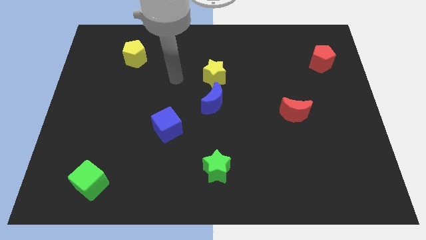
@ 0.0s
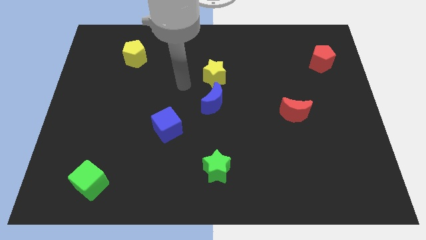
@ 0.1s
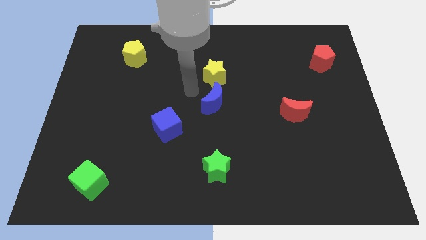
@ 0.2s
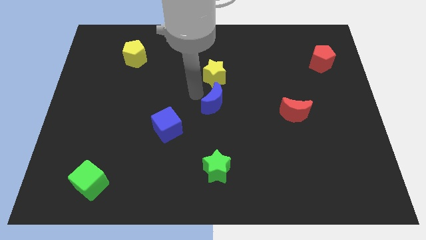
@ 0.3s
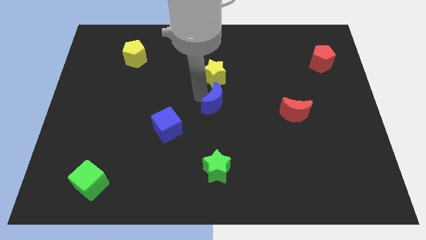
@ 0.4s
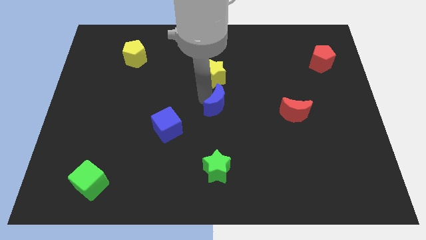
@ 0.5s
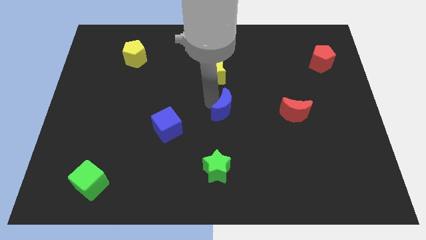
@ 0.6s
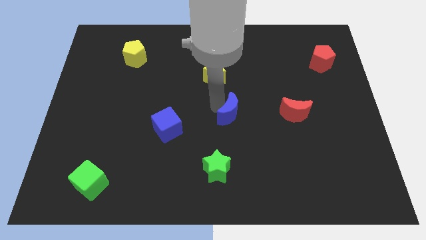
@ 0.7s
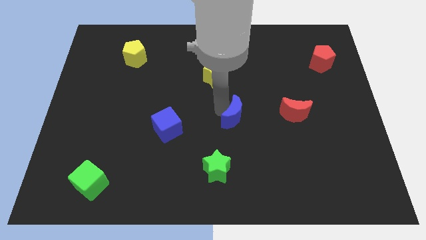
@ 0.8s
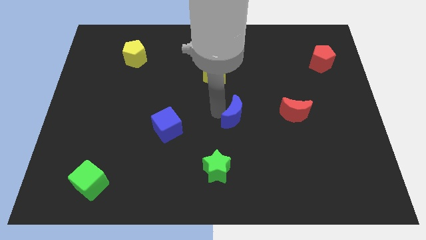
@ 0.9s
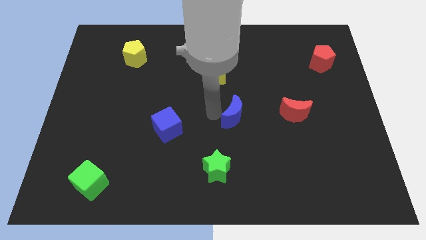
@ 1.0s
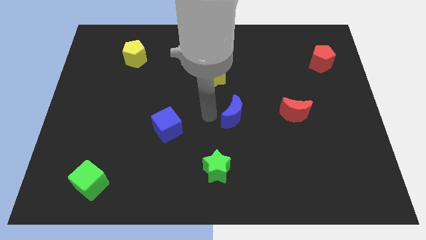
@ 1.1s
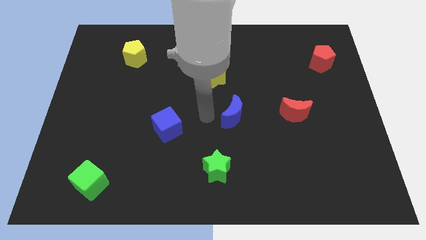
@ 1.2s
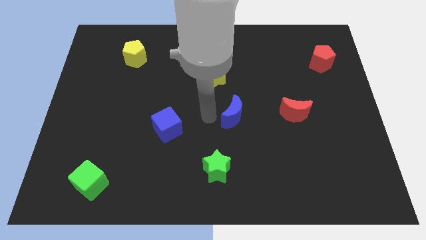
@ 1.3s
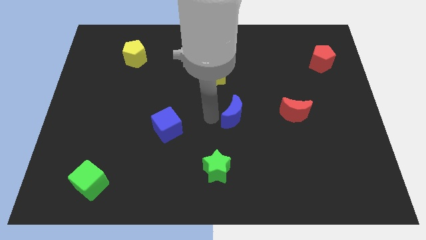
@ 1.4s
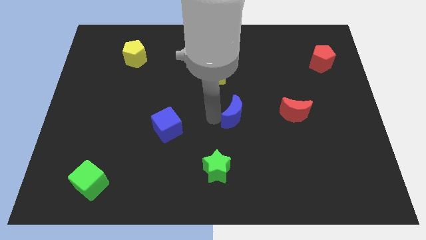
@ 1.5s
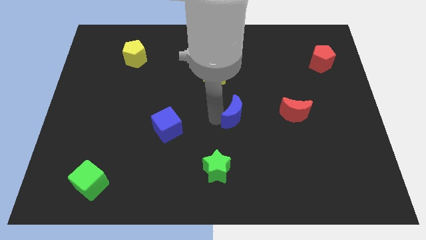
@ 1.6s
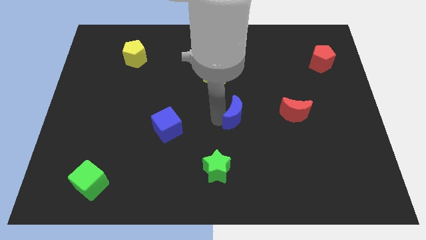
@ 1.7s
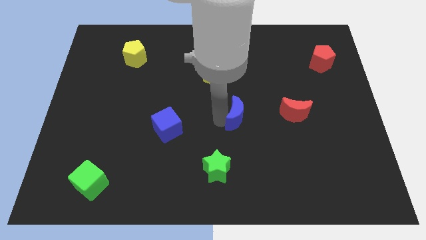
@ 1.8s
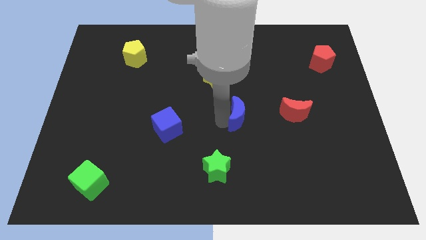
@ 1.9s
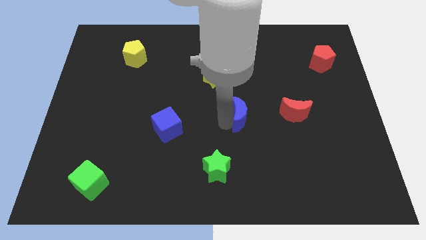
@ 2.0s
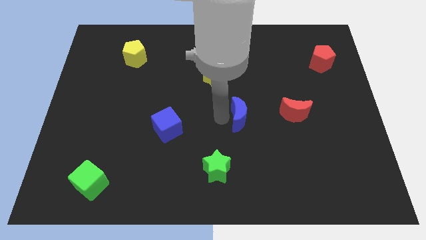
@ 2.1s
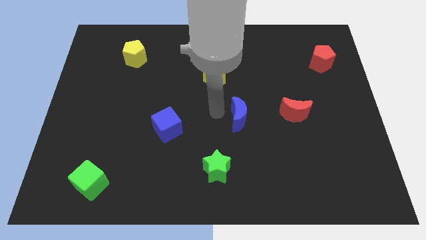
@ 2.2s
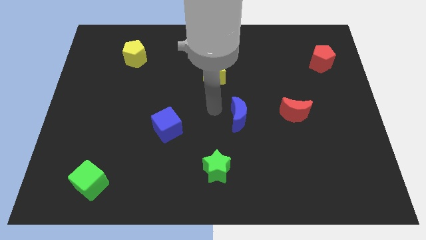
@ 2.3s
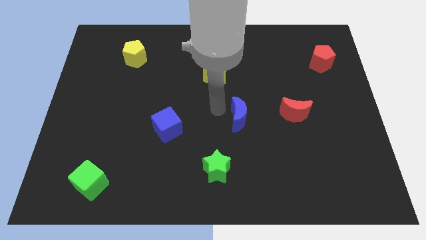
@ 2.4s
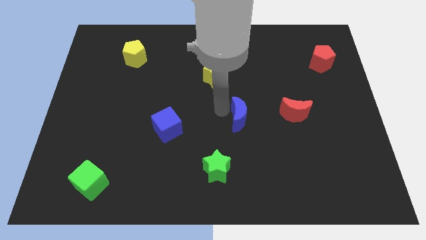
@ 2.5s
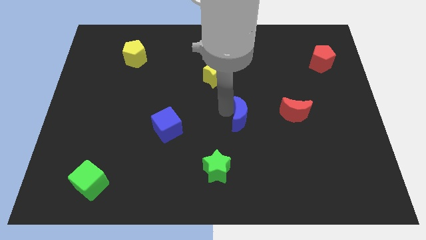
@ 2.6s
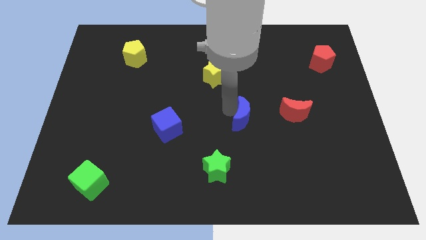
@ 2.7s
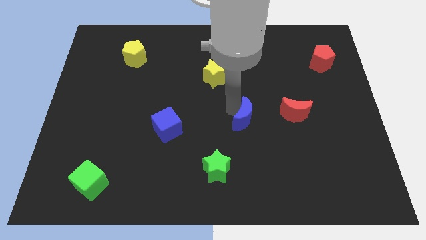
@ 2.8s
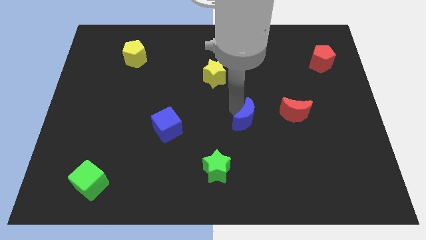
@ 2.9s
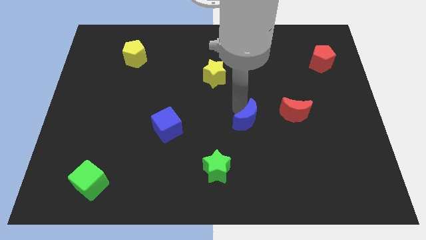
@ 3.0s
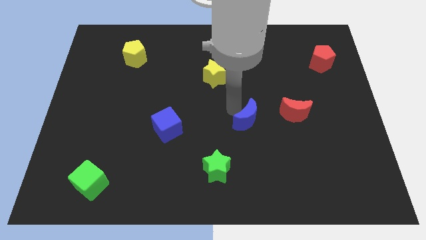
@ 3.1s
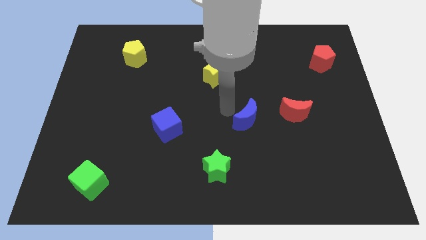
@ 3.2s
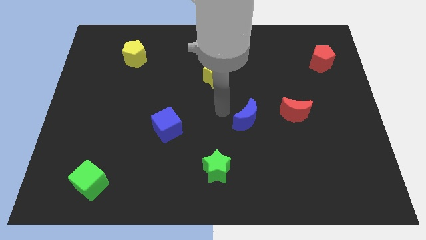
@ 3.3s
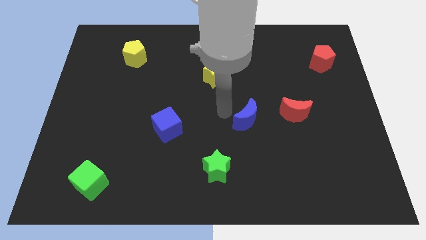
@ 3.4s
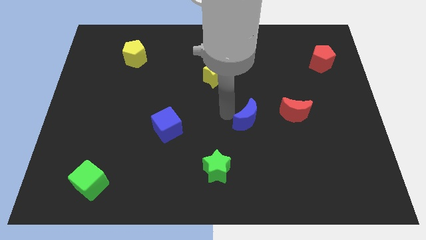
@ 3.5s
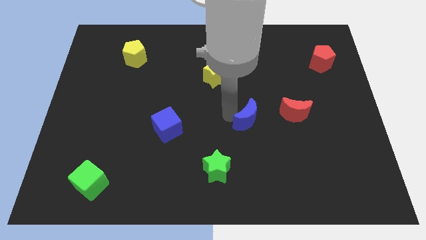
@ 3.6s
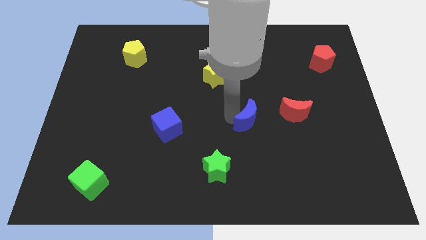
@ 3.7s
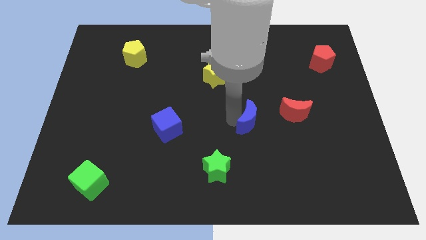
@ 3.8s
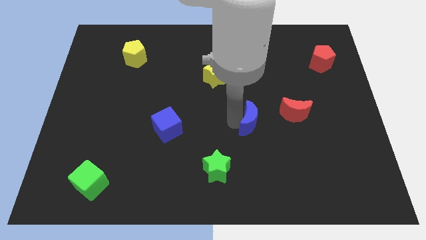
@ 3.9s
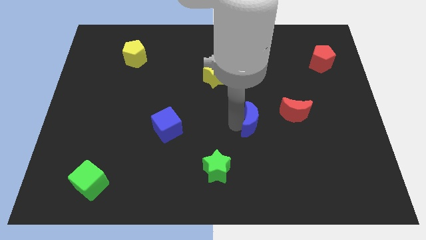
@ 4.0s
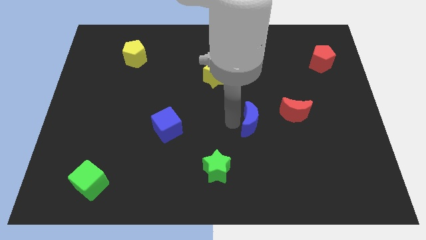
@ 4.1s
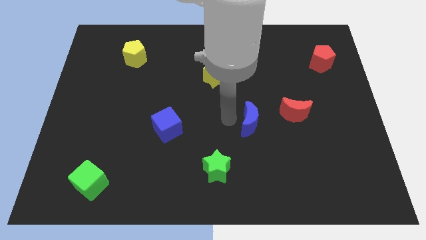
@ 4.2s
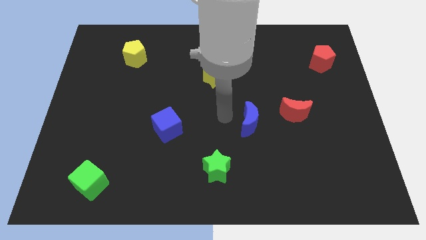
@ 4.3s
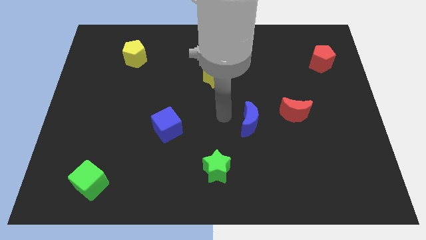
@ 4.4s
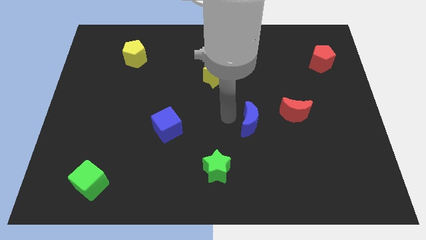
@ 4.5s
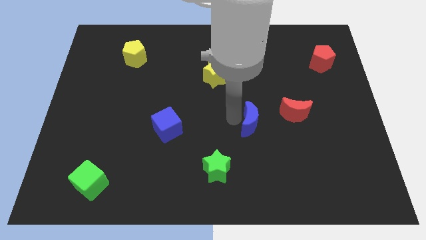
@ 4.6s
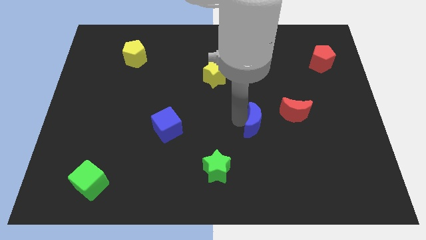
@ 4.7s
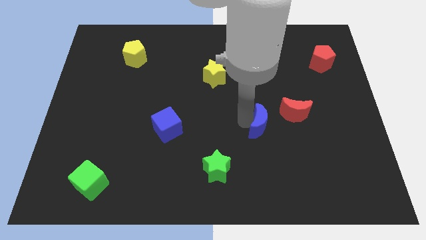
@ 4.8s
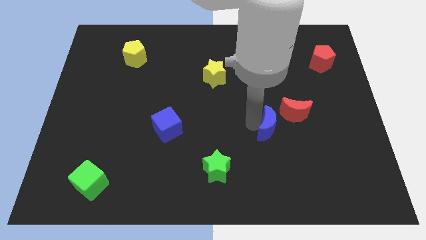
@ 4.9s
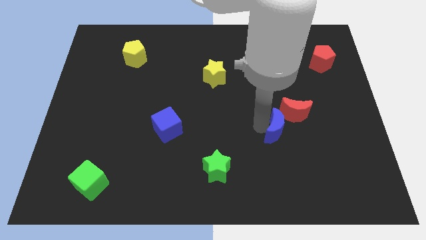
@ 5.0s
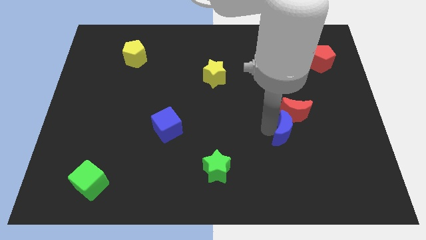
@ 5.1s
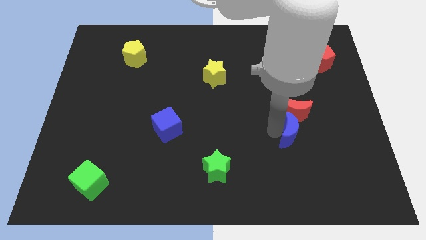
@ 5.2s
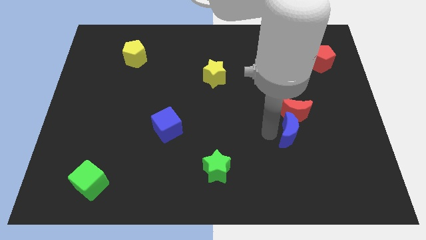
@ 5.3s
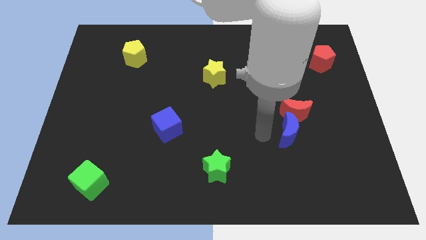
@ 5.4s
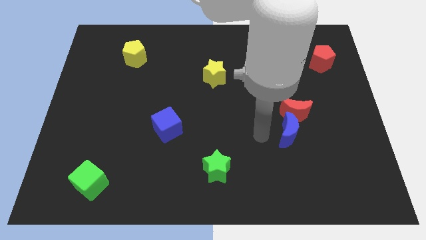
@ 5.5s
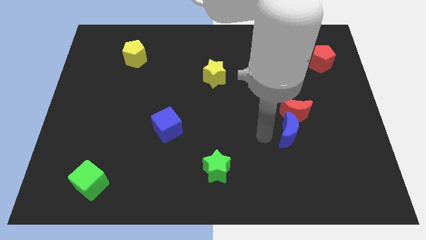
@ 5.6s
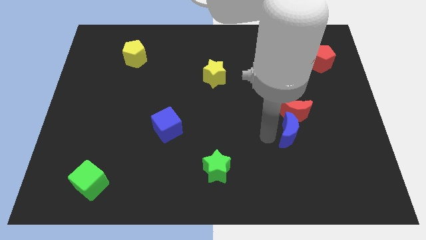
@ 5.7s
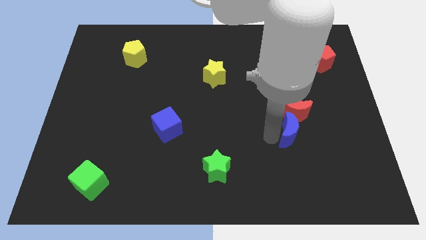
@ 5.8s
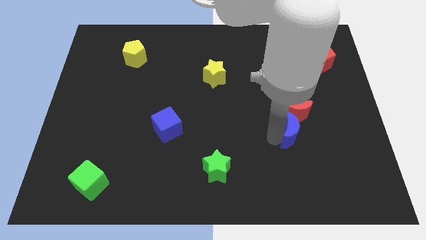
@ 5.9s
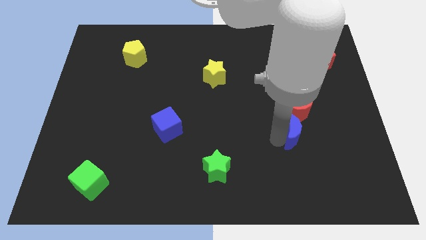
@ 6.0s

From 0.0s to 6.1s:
move the blue moon to the bottom right side of the red moon

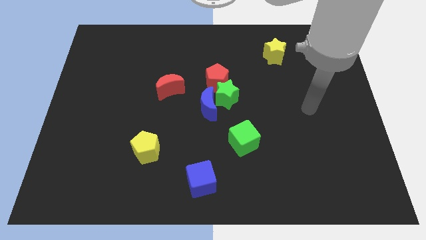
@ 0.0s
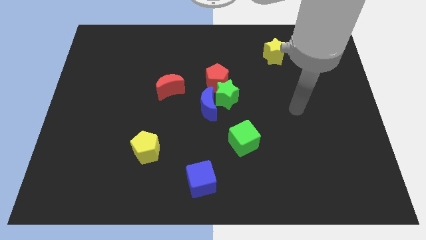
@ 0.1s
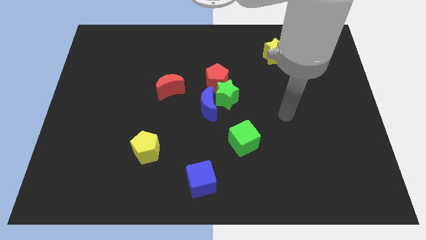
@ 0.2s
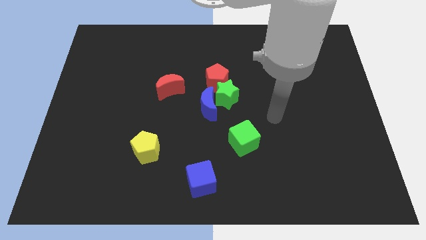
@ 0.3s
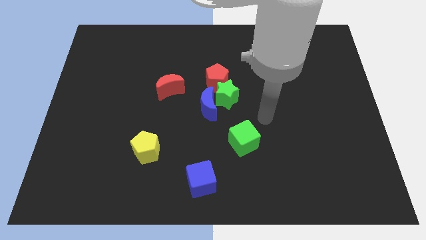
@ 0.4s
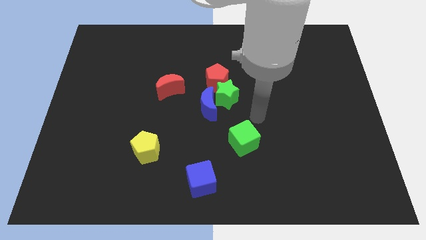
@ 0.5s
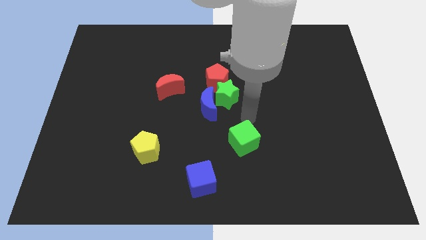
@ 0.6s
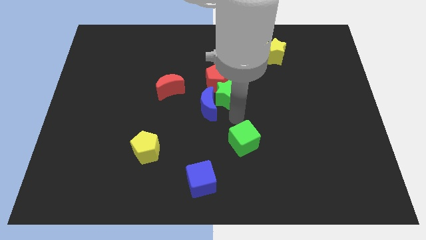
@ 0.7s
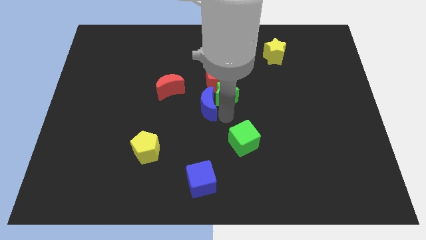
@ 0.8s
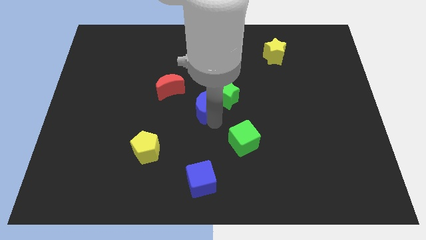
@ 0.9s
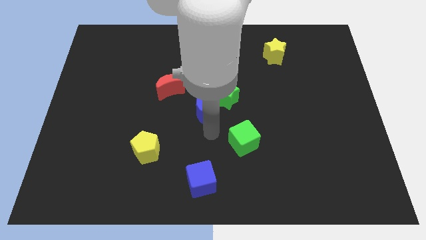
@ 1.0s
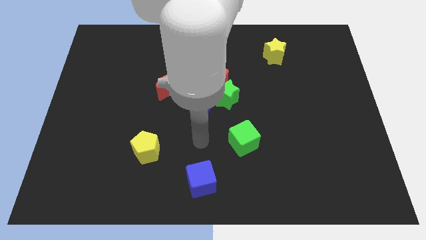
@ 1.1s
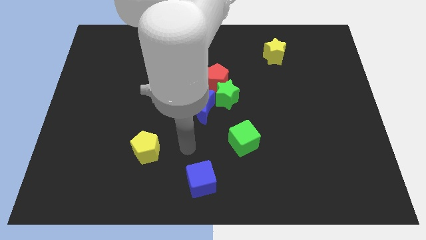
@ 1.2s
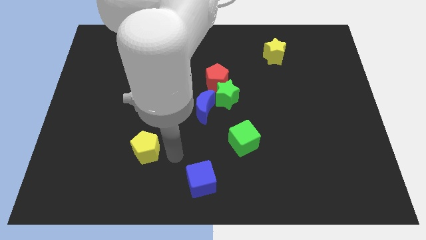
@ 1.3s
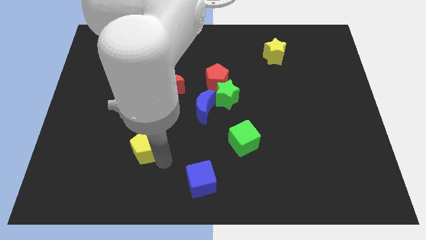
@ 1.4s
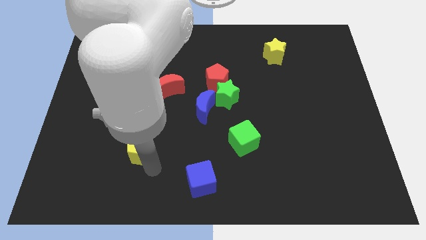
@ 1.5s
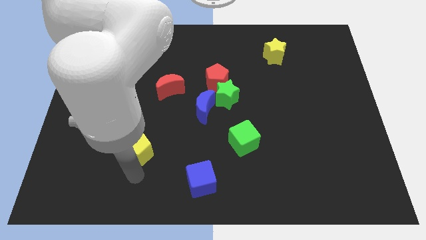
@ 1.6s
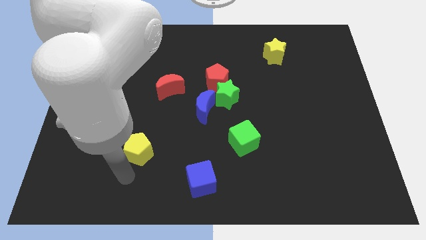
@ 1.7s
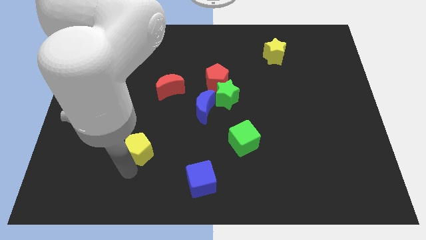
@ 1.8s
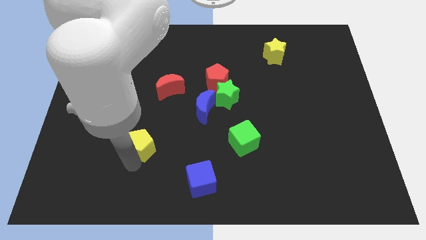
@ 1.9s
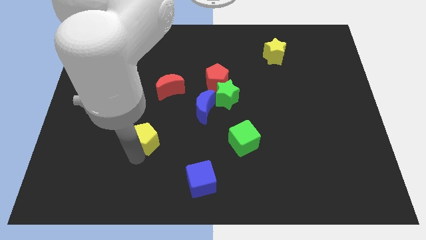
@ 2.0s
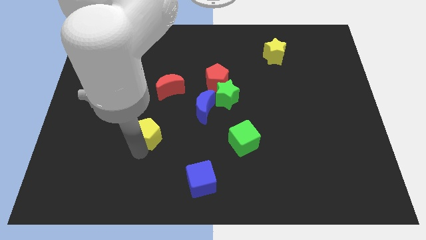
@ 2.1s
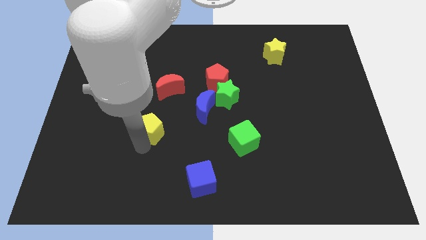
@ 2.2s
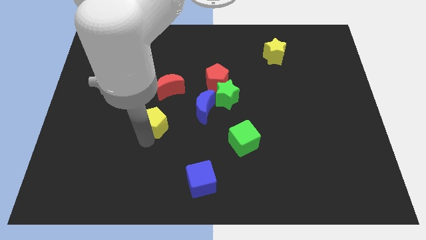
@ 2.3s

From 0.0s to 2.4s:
put the yellow pentagon to the left of the blue moon
